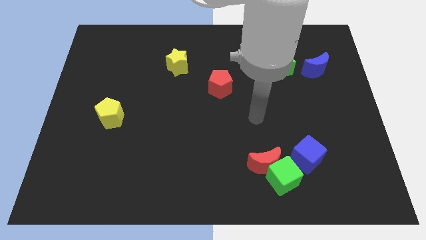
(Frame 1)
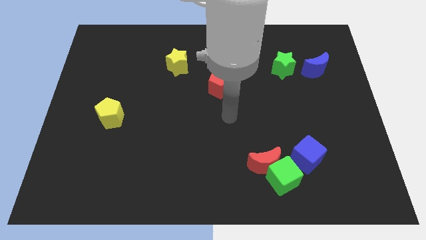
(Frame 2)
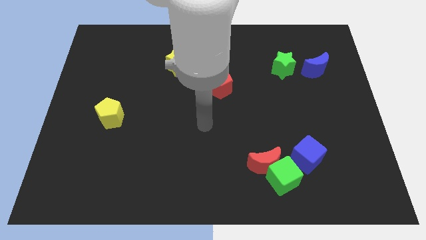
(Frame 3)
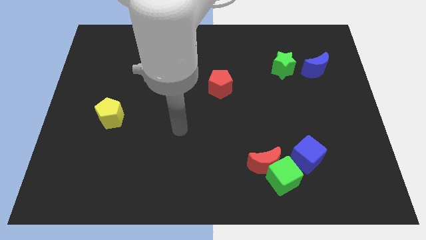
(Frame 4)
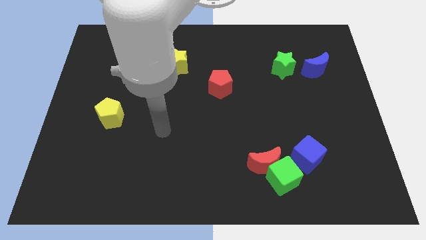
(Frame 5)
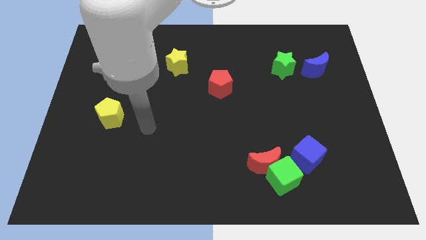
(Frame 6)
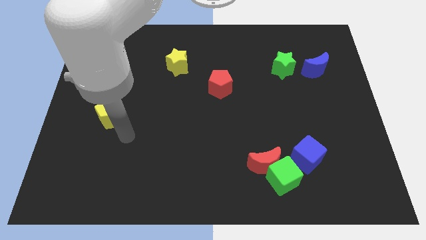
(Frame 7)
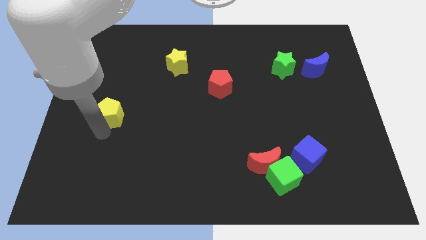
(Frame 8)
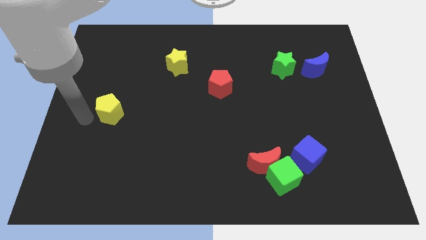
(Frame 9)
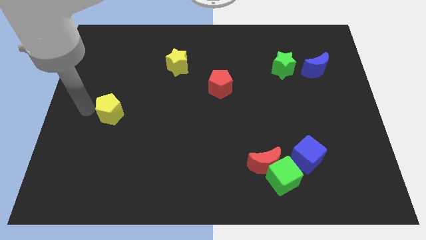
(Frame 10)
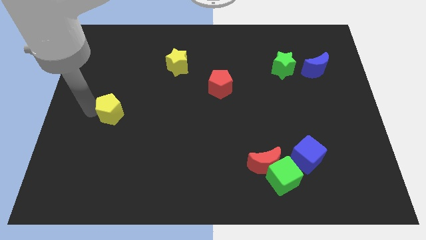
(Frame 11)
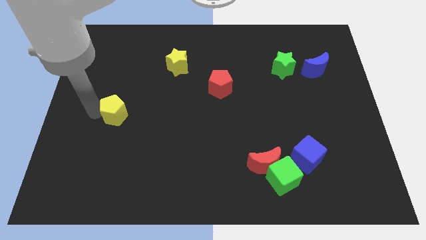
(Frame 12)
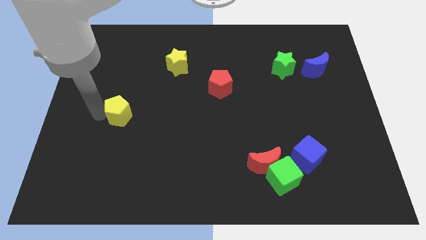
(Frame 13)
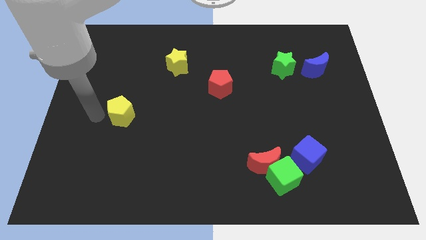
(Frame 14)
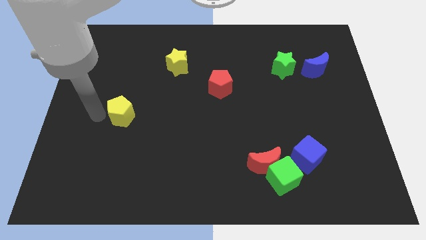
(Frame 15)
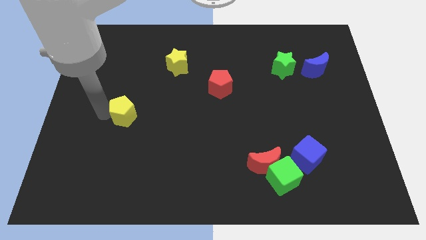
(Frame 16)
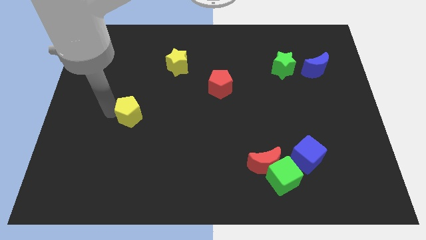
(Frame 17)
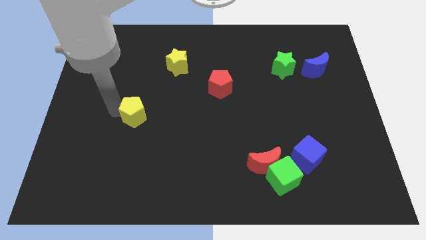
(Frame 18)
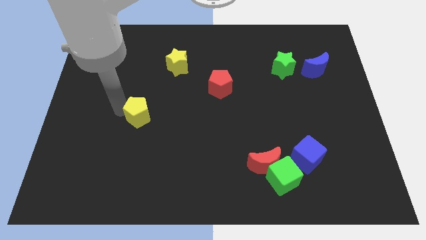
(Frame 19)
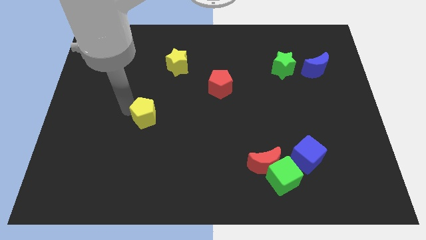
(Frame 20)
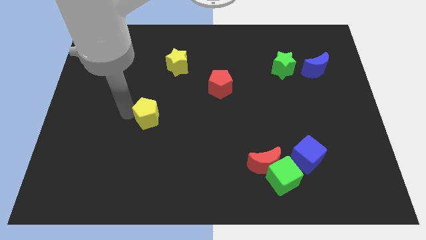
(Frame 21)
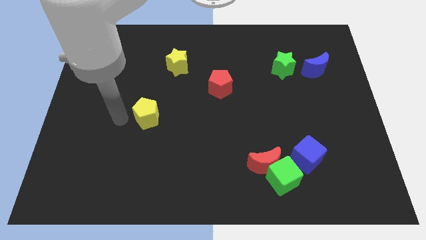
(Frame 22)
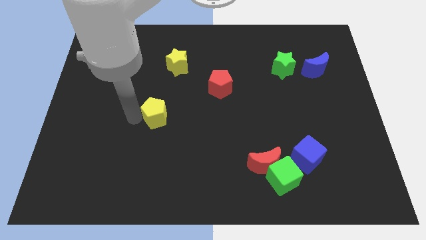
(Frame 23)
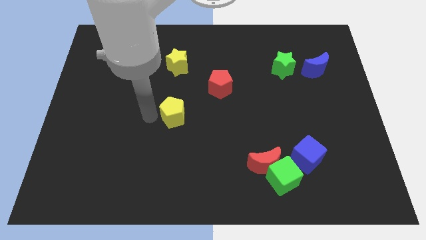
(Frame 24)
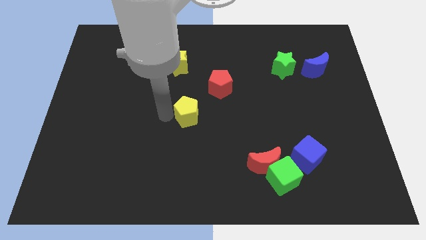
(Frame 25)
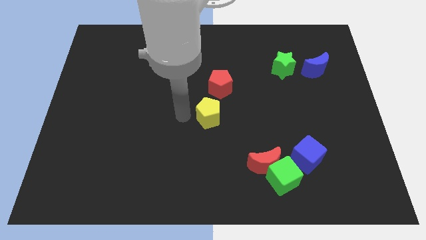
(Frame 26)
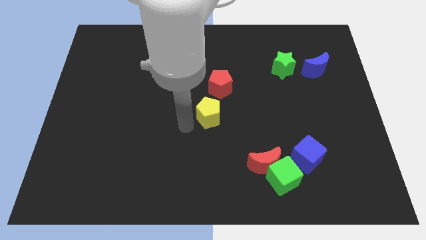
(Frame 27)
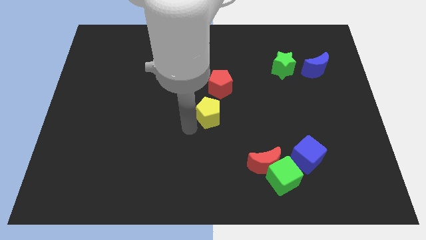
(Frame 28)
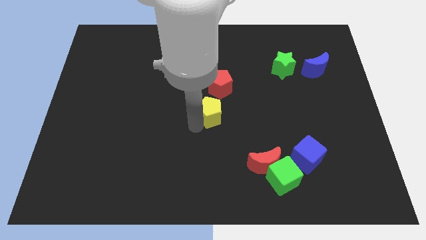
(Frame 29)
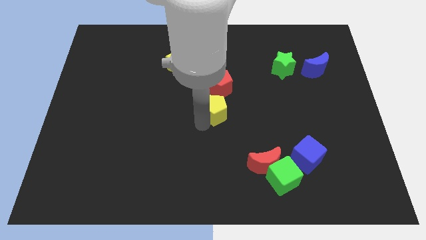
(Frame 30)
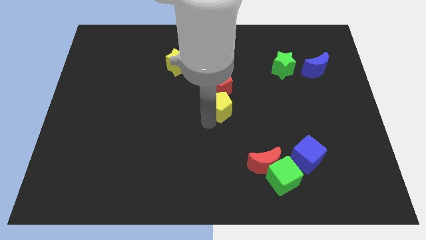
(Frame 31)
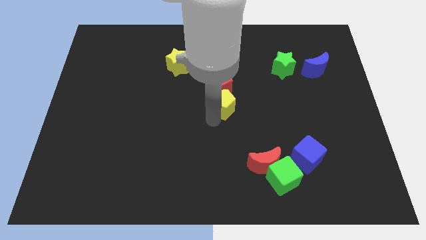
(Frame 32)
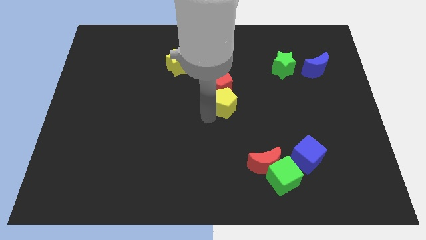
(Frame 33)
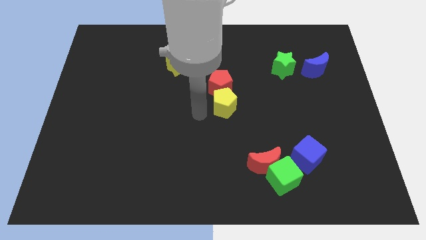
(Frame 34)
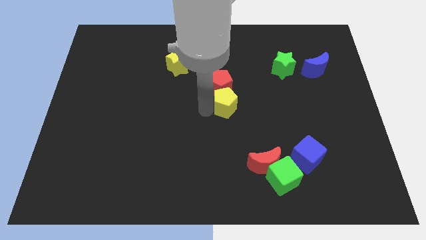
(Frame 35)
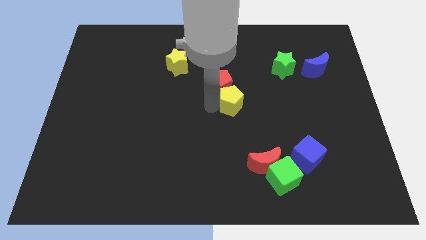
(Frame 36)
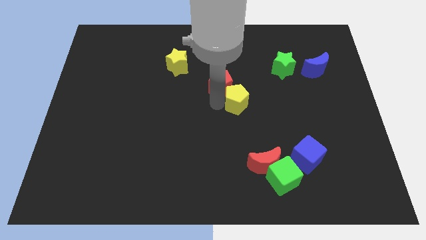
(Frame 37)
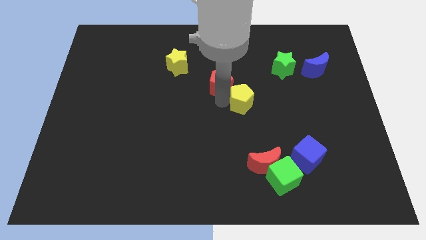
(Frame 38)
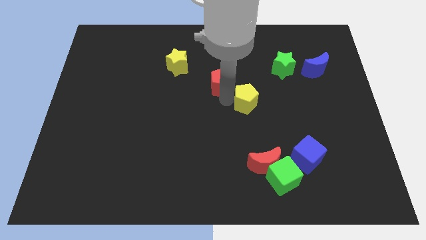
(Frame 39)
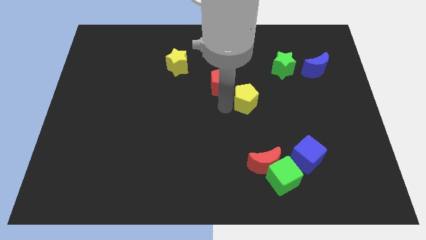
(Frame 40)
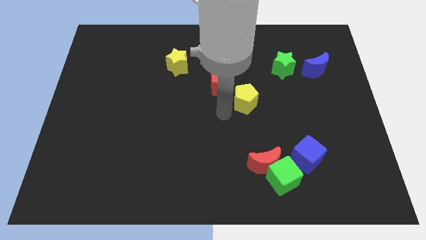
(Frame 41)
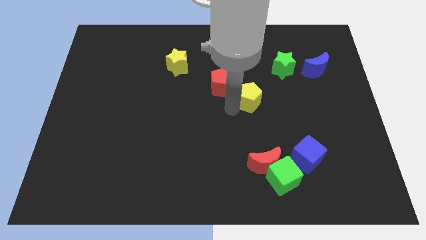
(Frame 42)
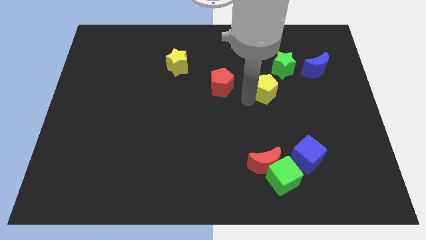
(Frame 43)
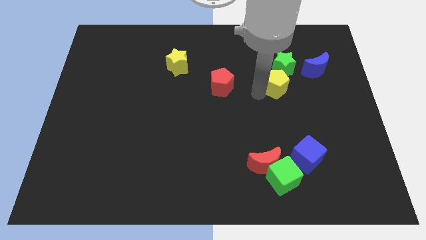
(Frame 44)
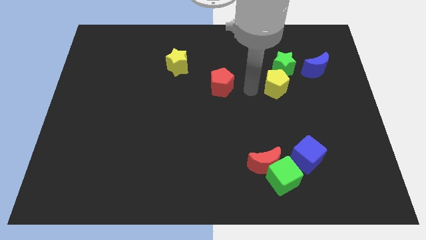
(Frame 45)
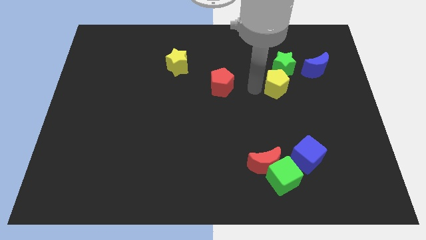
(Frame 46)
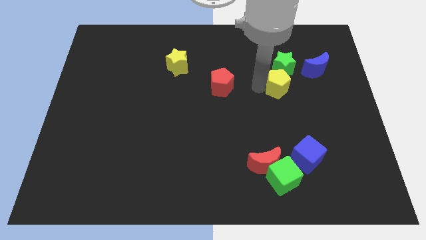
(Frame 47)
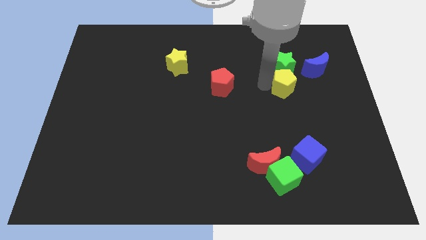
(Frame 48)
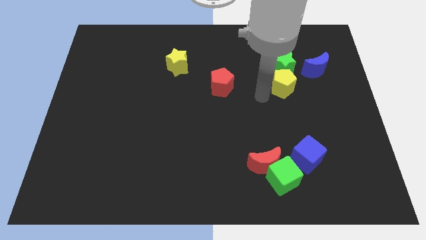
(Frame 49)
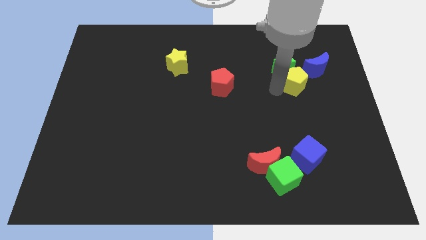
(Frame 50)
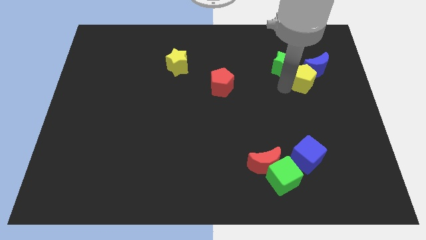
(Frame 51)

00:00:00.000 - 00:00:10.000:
slide the yellow pentagon next to the blue moon

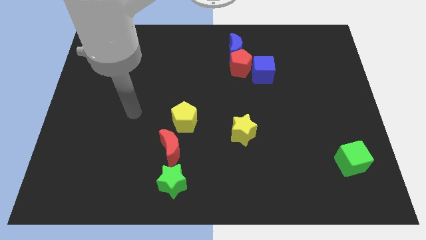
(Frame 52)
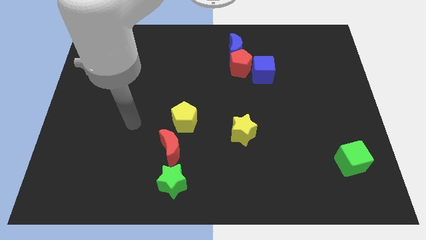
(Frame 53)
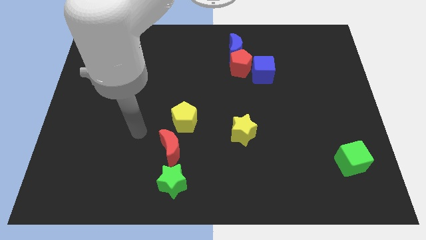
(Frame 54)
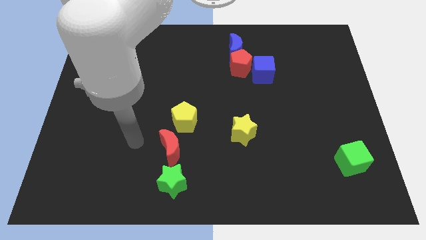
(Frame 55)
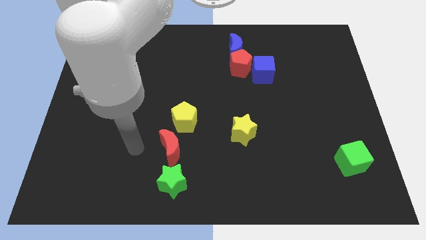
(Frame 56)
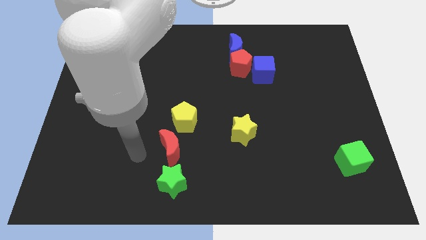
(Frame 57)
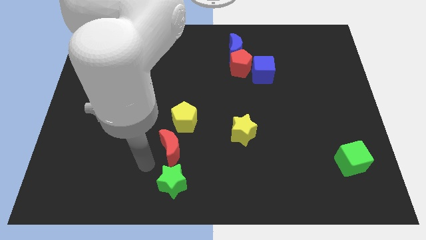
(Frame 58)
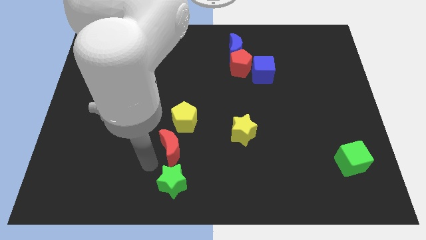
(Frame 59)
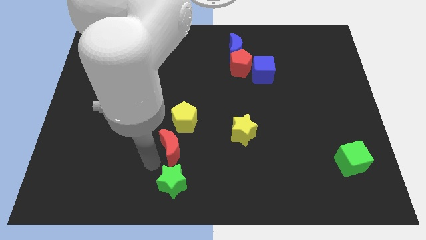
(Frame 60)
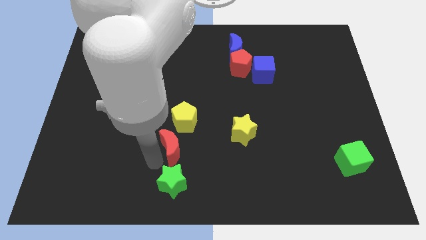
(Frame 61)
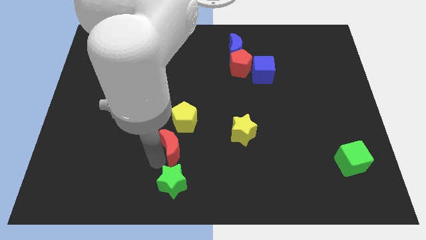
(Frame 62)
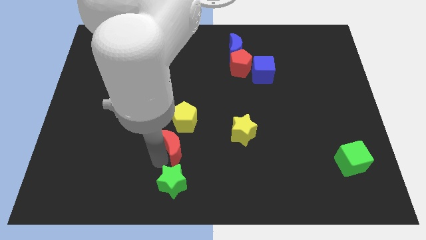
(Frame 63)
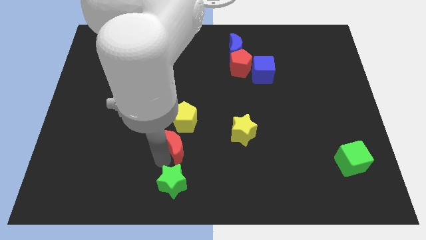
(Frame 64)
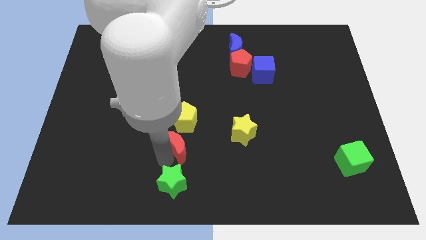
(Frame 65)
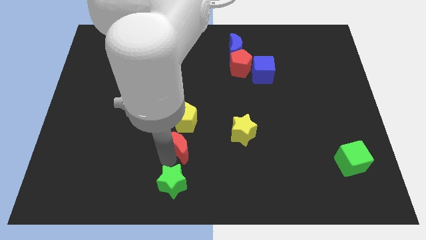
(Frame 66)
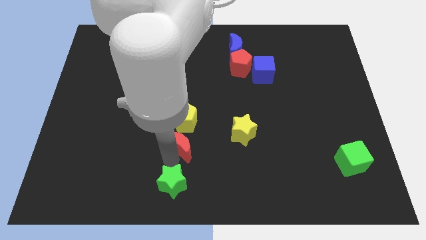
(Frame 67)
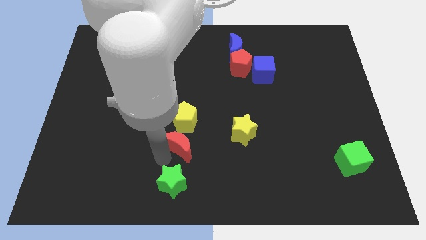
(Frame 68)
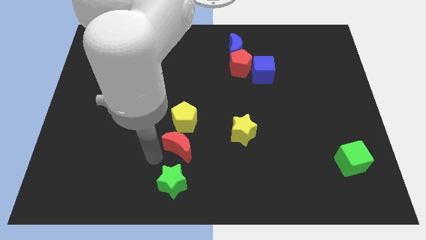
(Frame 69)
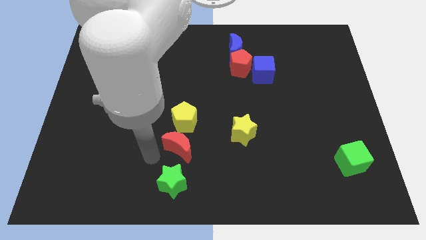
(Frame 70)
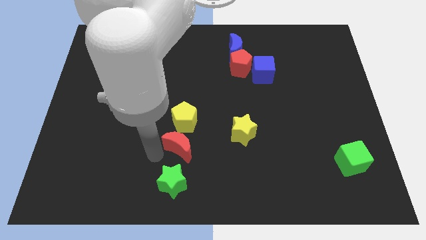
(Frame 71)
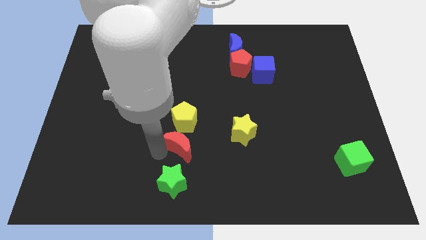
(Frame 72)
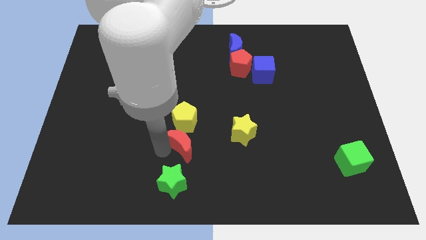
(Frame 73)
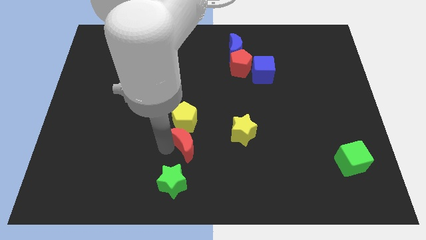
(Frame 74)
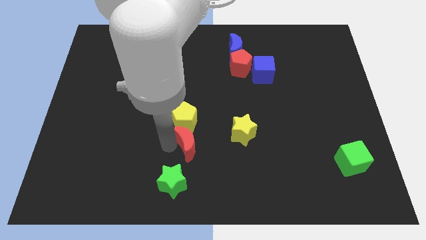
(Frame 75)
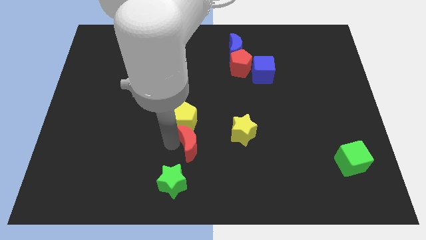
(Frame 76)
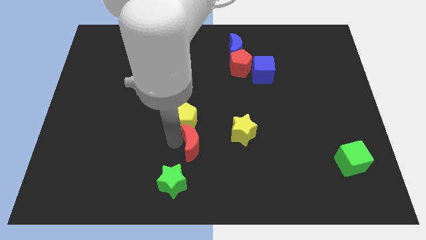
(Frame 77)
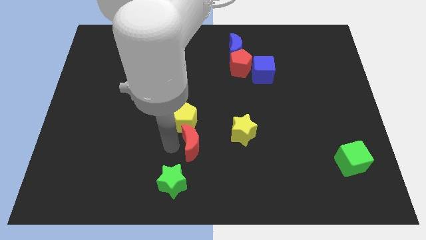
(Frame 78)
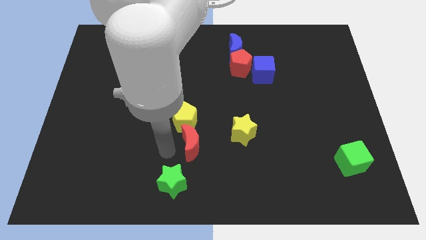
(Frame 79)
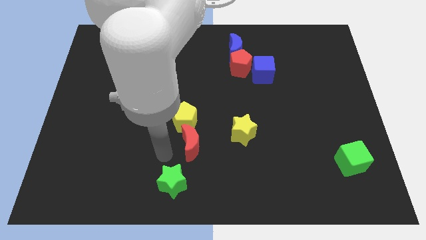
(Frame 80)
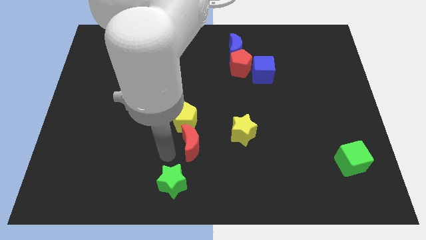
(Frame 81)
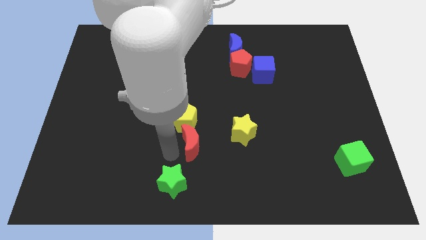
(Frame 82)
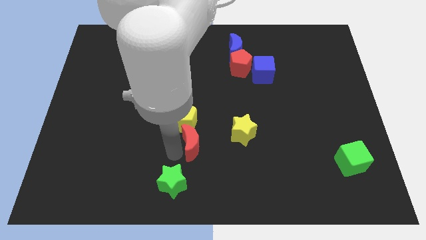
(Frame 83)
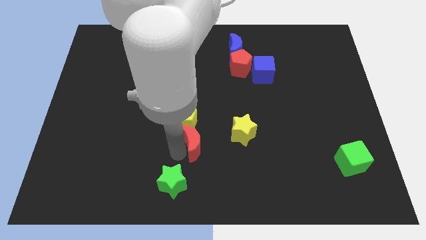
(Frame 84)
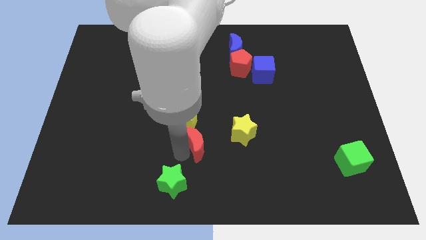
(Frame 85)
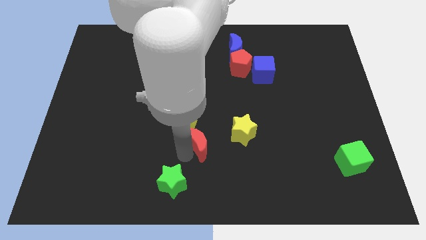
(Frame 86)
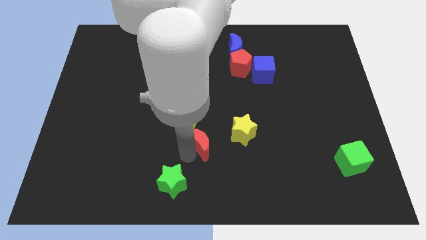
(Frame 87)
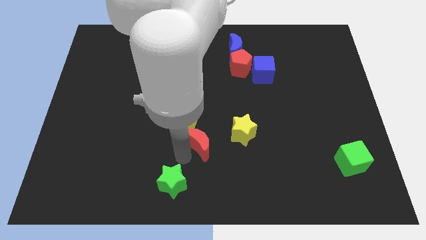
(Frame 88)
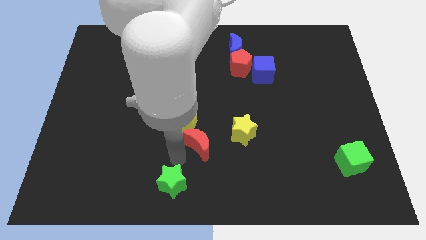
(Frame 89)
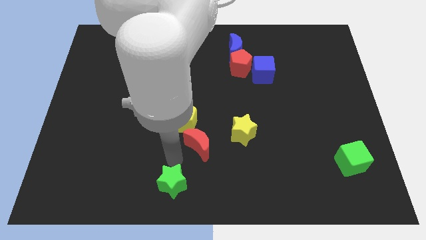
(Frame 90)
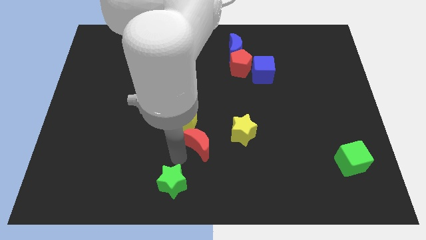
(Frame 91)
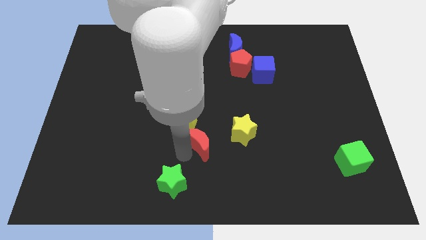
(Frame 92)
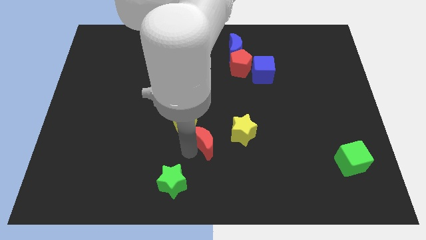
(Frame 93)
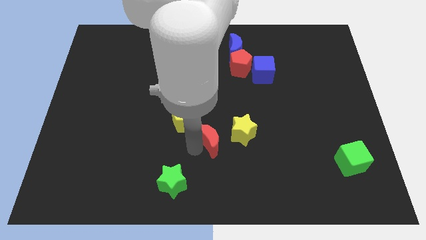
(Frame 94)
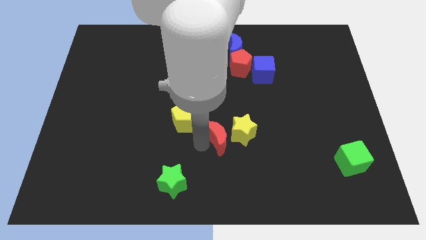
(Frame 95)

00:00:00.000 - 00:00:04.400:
move the red moon next to the yellow star
